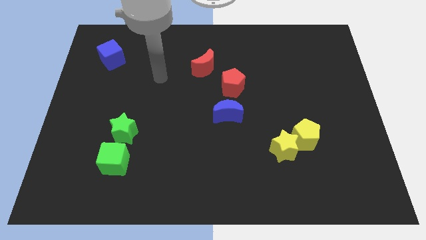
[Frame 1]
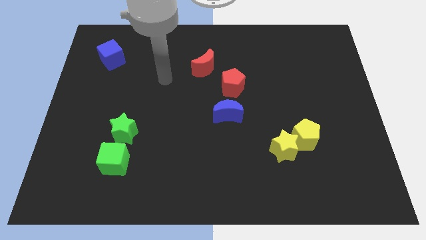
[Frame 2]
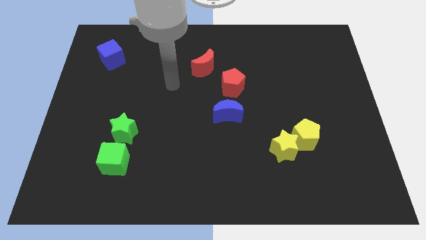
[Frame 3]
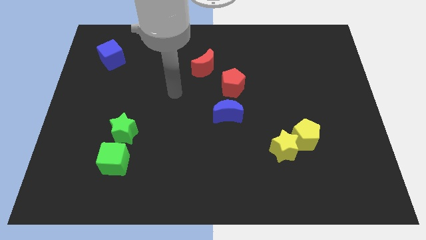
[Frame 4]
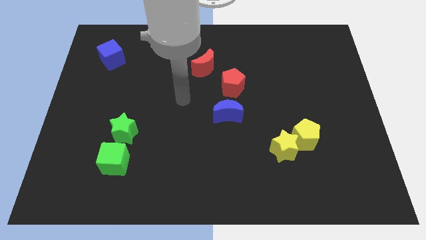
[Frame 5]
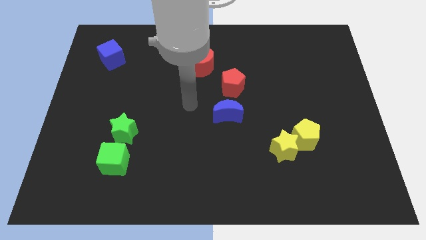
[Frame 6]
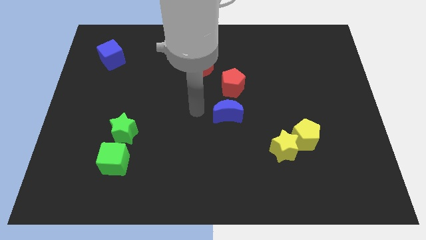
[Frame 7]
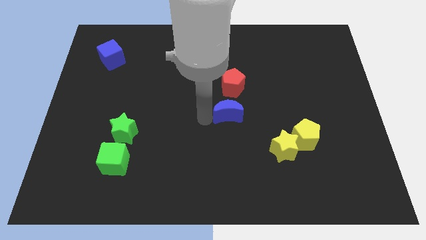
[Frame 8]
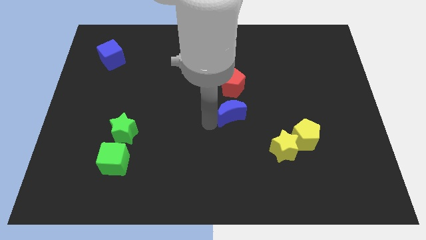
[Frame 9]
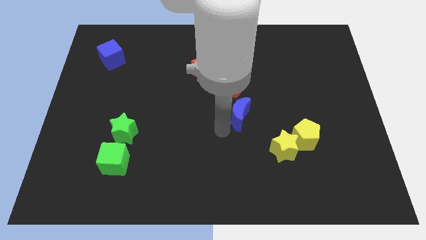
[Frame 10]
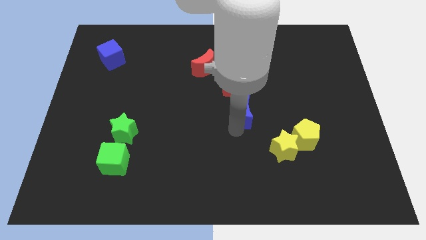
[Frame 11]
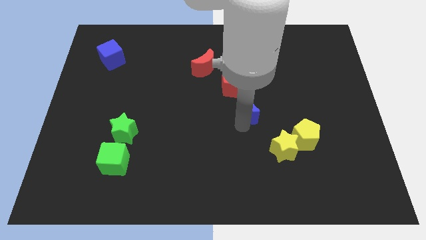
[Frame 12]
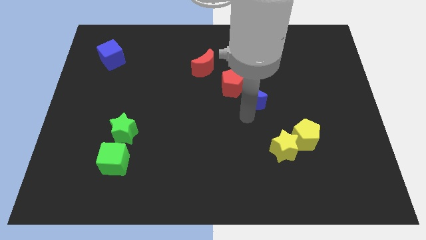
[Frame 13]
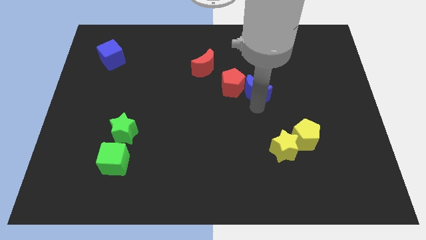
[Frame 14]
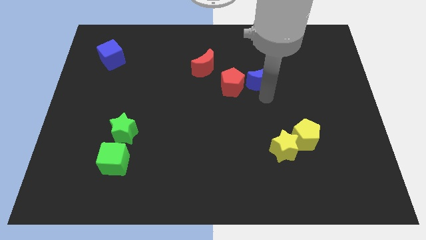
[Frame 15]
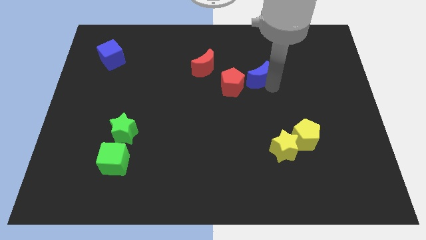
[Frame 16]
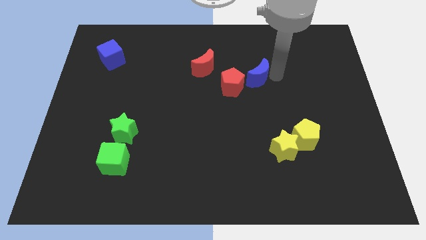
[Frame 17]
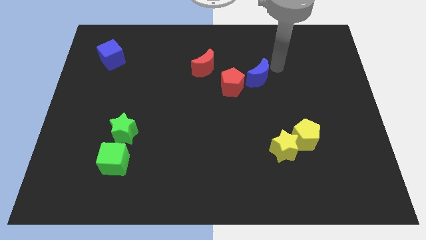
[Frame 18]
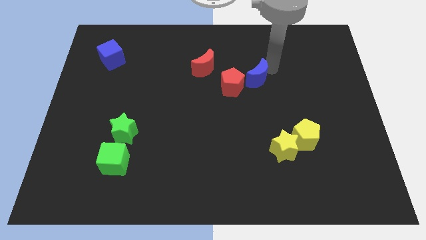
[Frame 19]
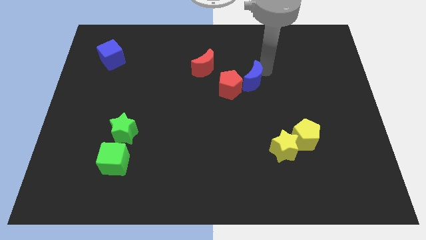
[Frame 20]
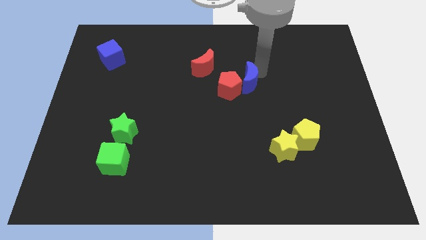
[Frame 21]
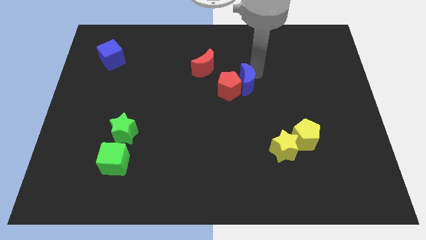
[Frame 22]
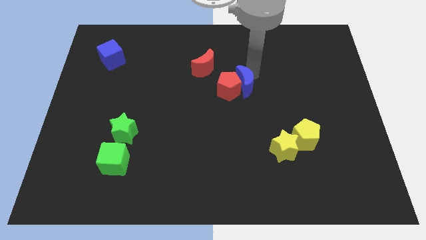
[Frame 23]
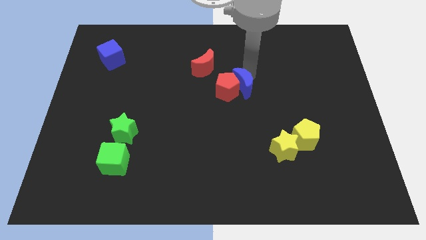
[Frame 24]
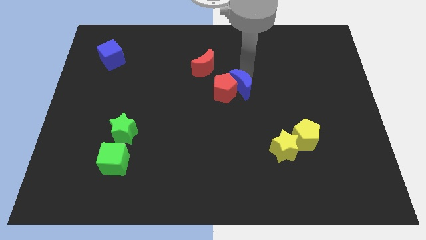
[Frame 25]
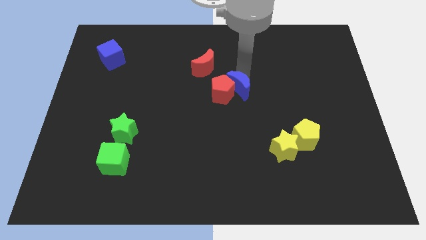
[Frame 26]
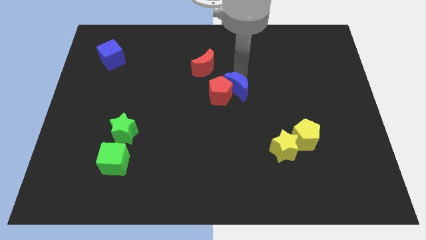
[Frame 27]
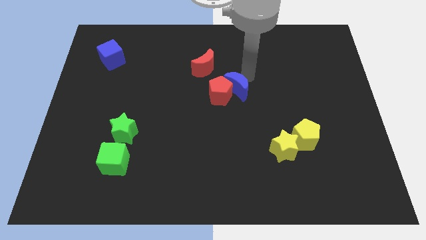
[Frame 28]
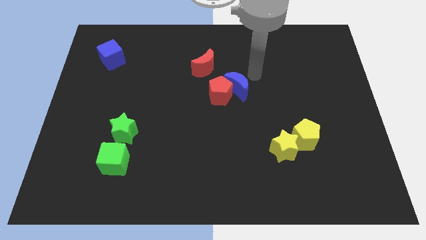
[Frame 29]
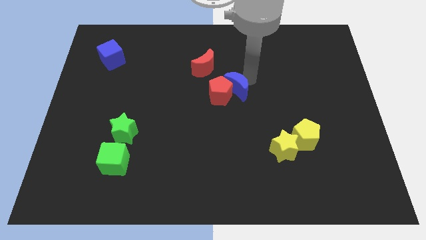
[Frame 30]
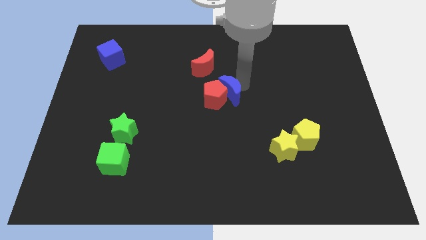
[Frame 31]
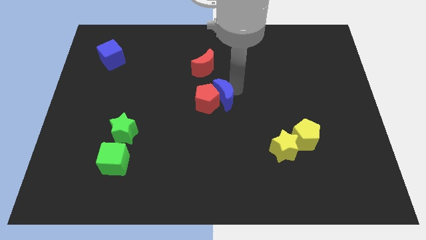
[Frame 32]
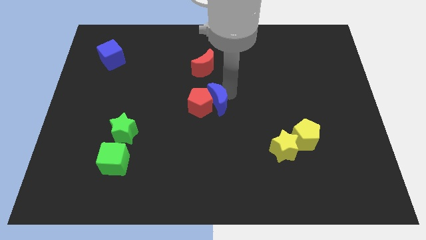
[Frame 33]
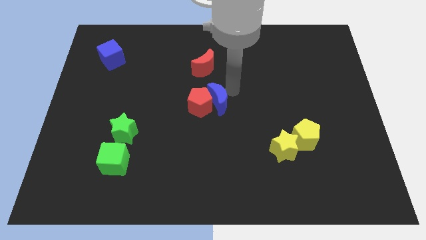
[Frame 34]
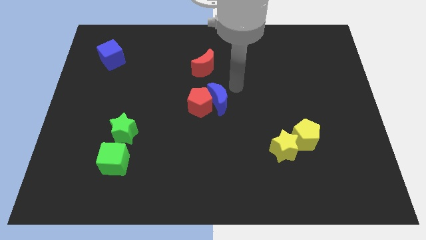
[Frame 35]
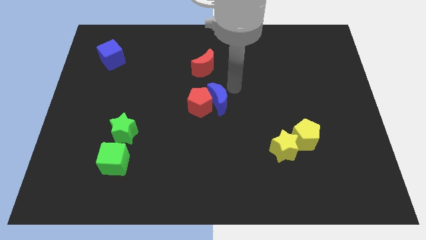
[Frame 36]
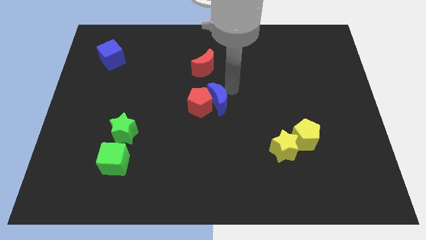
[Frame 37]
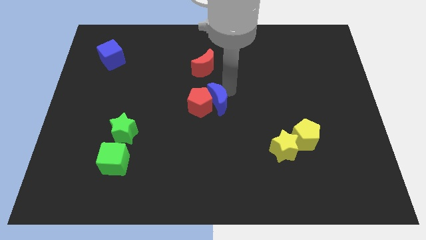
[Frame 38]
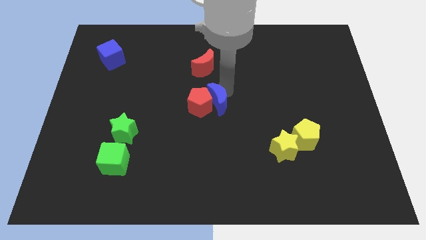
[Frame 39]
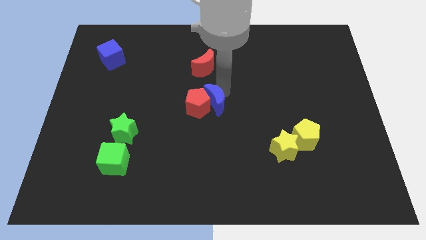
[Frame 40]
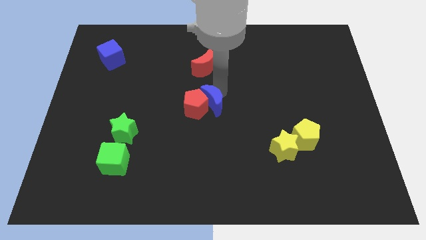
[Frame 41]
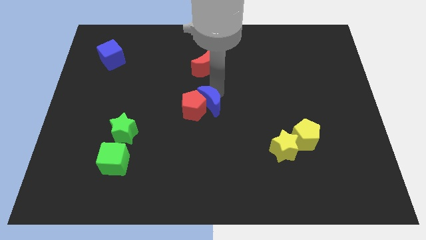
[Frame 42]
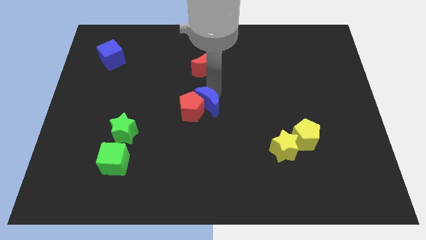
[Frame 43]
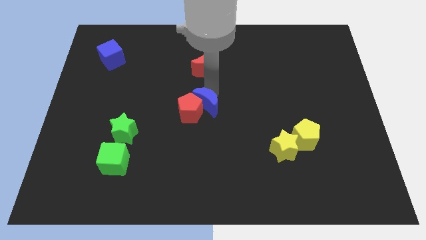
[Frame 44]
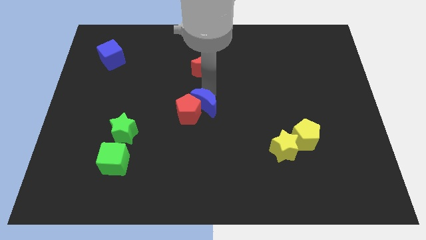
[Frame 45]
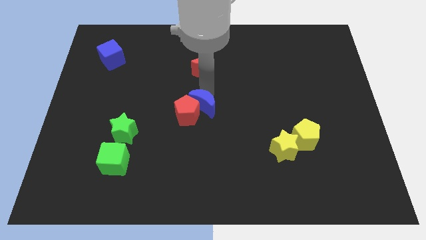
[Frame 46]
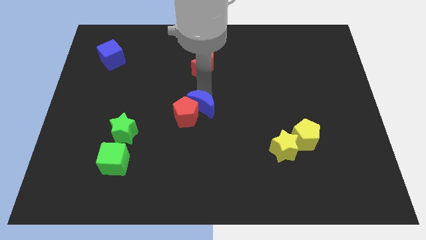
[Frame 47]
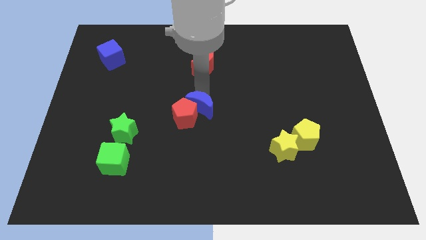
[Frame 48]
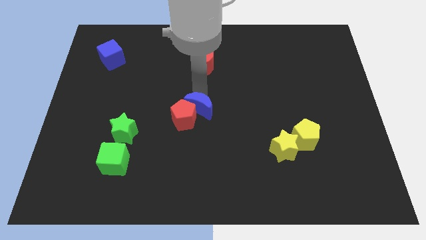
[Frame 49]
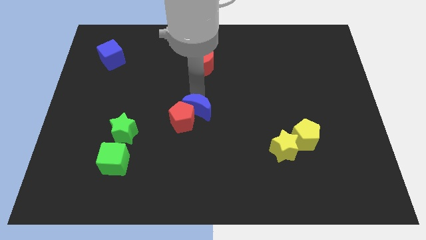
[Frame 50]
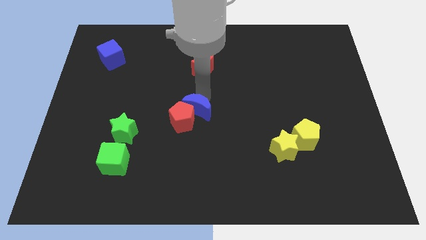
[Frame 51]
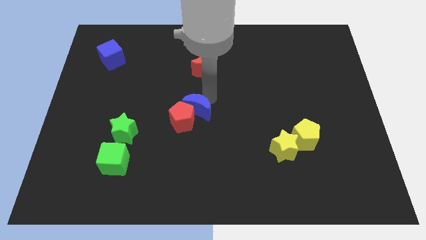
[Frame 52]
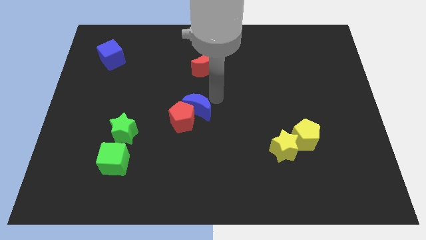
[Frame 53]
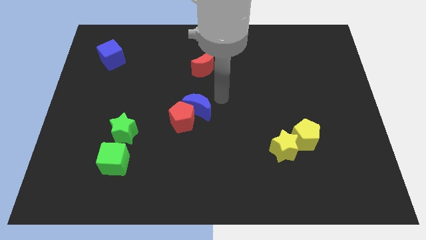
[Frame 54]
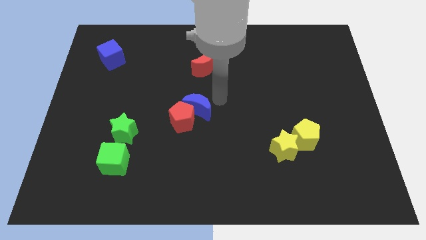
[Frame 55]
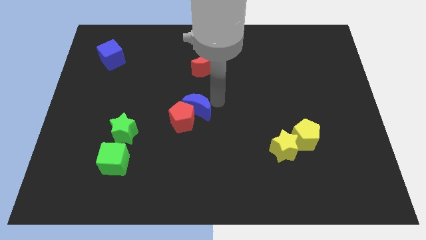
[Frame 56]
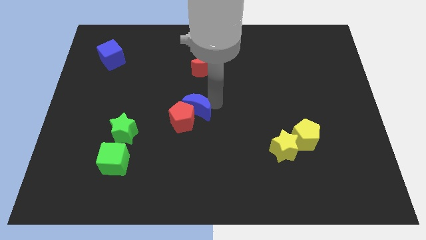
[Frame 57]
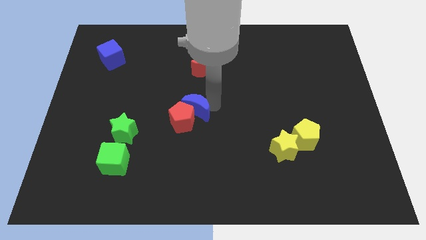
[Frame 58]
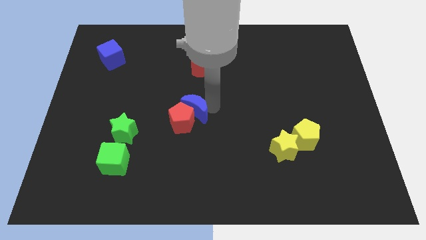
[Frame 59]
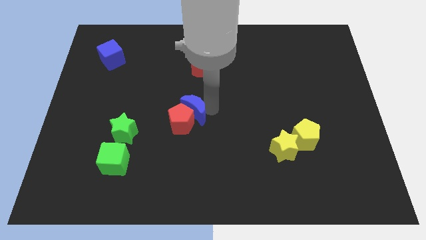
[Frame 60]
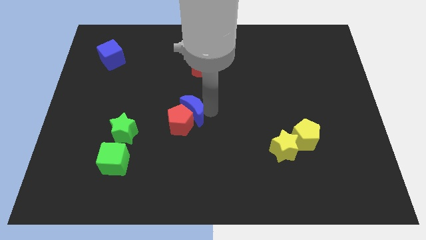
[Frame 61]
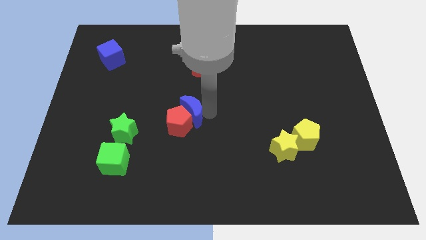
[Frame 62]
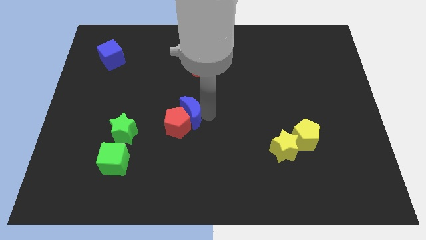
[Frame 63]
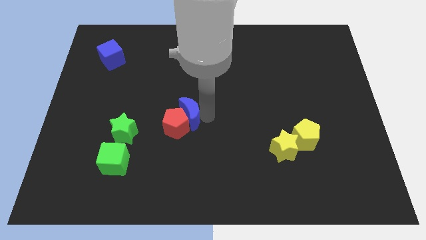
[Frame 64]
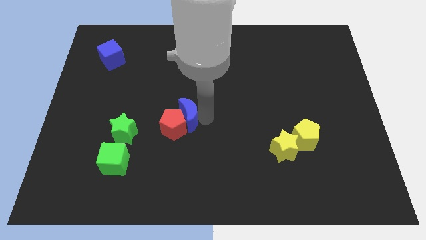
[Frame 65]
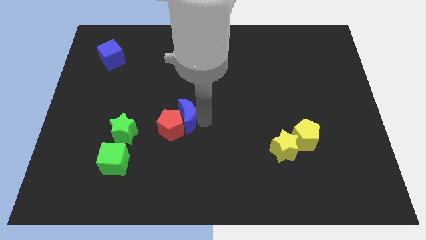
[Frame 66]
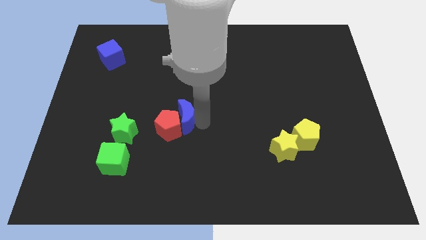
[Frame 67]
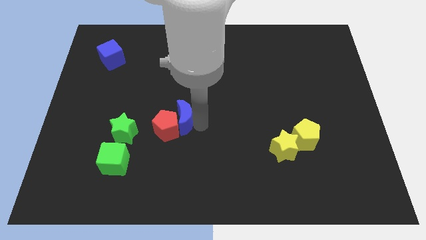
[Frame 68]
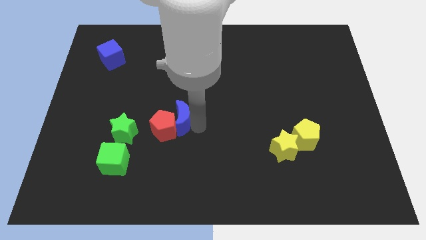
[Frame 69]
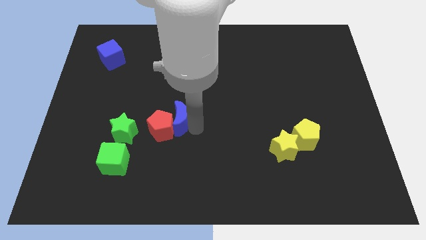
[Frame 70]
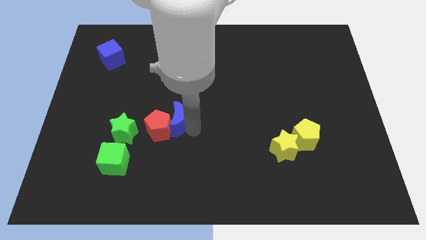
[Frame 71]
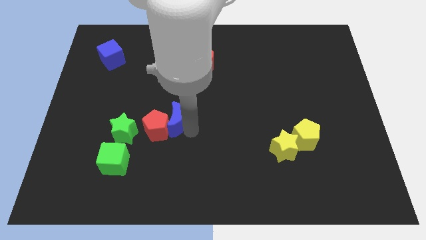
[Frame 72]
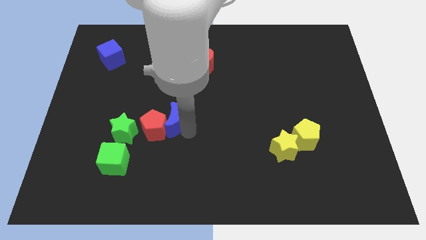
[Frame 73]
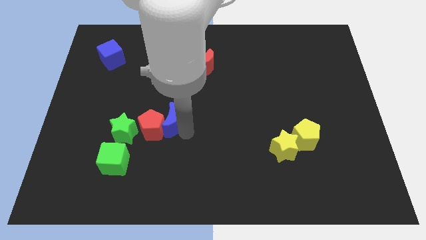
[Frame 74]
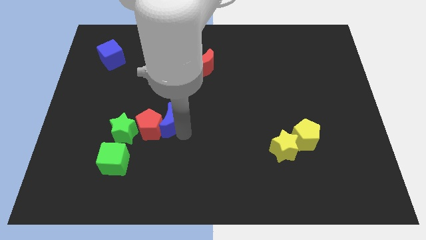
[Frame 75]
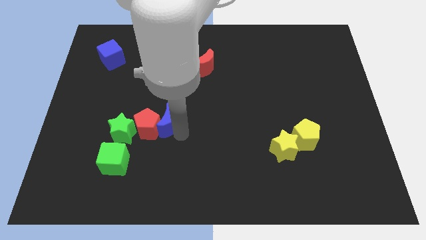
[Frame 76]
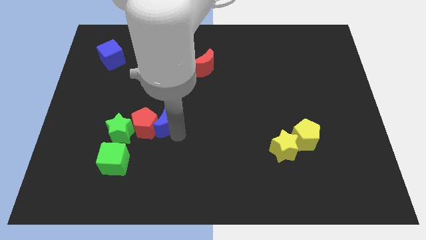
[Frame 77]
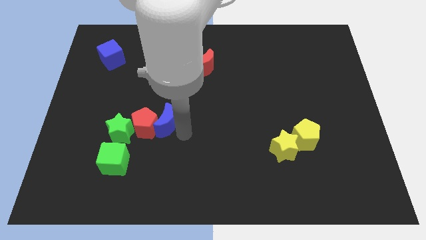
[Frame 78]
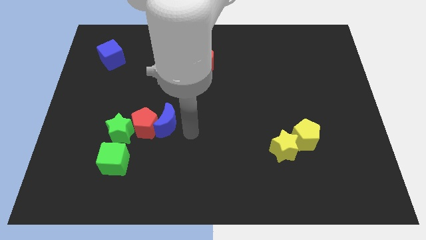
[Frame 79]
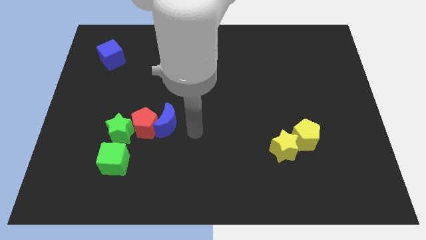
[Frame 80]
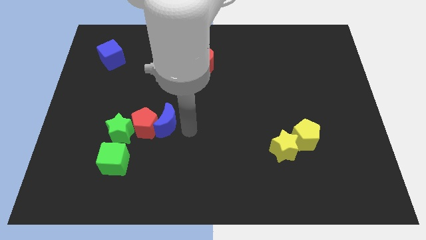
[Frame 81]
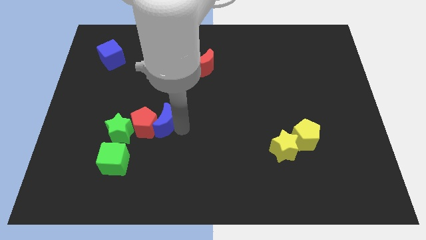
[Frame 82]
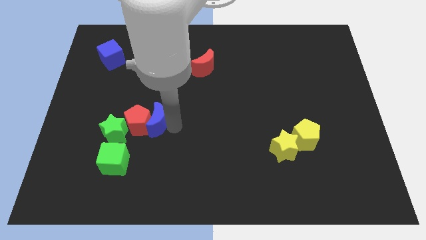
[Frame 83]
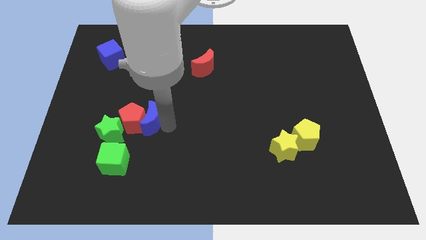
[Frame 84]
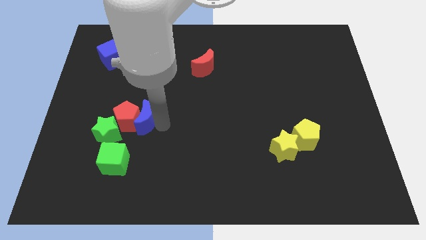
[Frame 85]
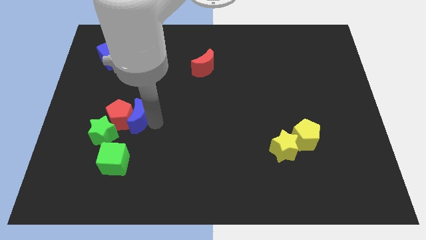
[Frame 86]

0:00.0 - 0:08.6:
push the blue moon to the left
